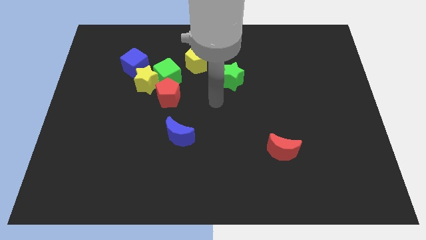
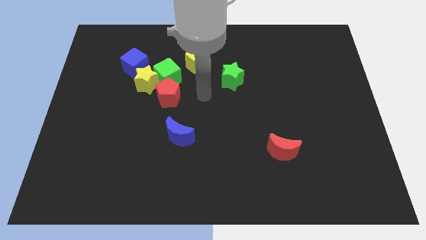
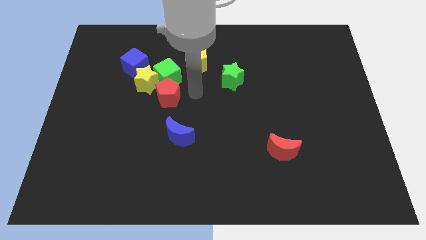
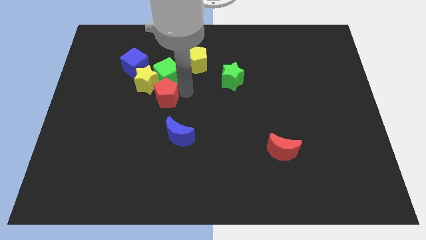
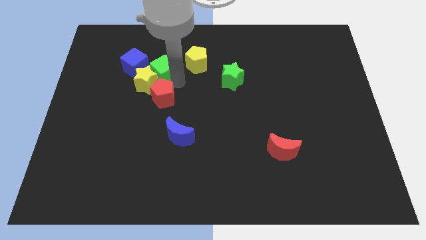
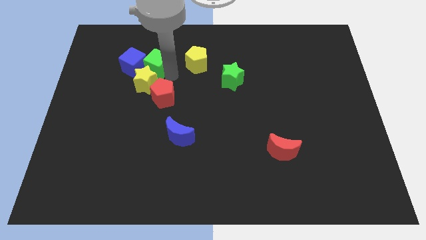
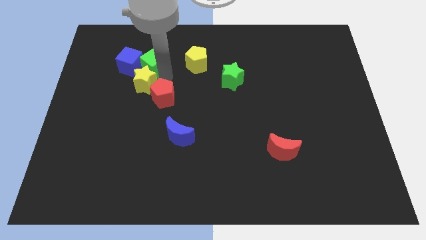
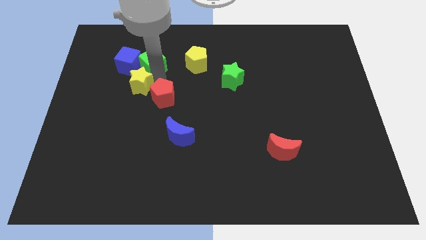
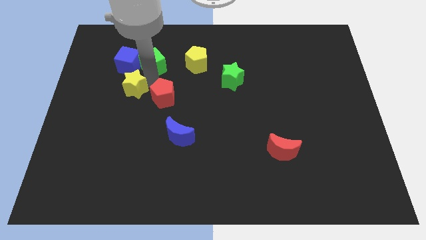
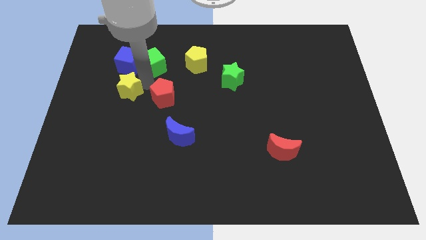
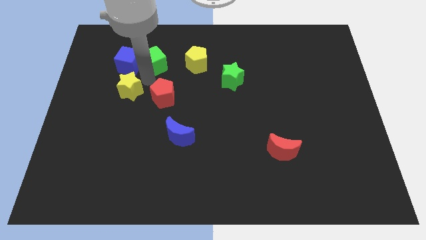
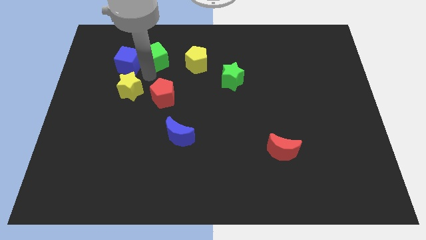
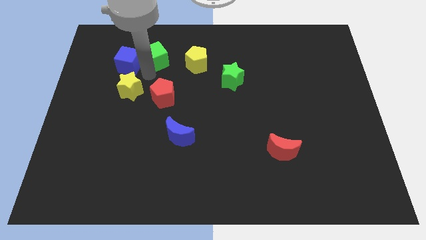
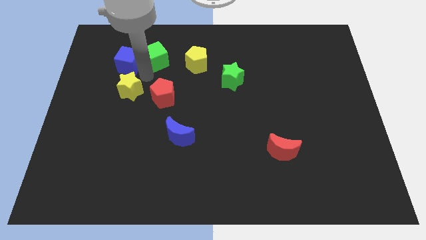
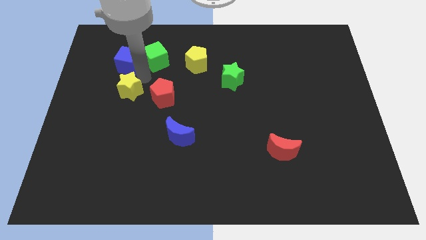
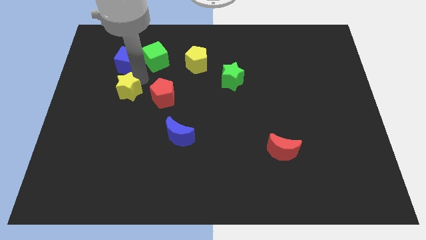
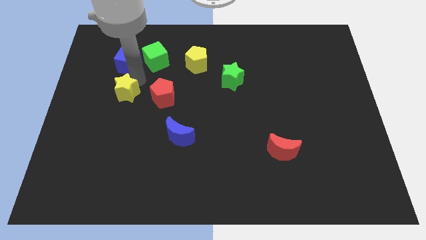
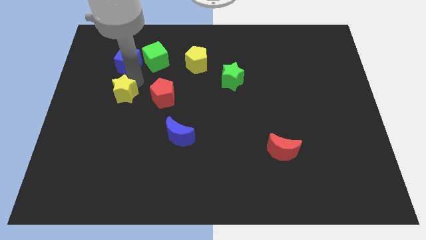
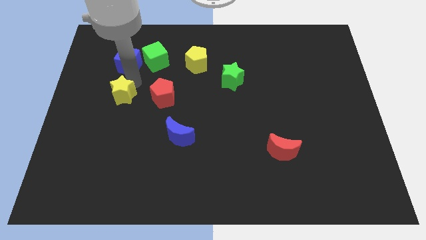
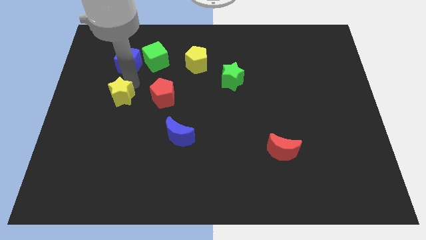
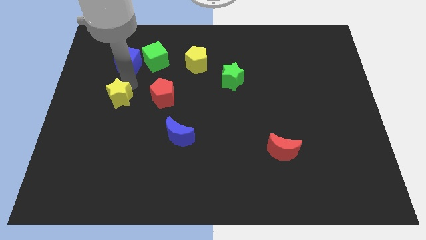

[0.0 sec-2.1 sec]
move the yellow star away from the green cube, red pentagon, and blue cube

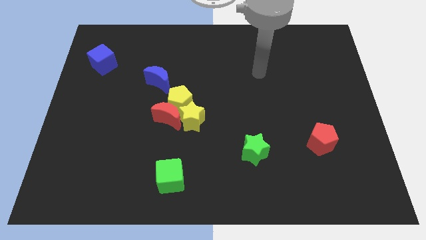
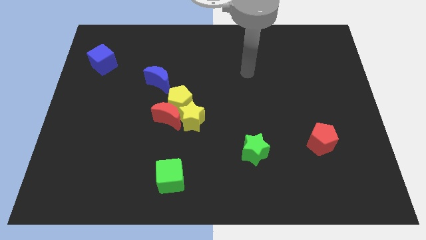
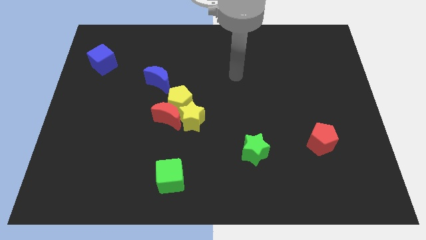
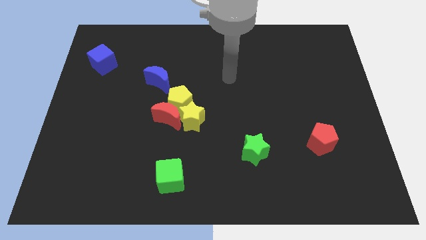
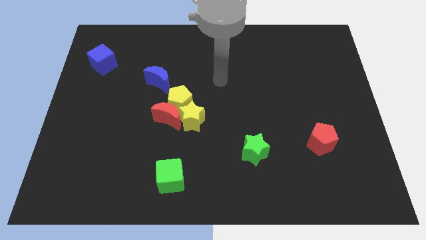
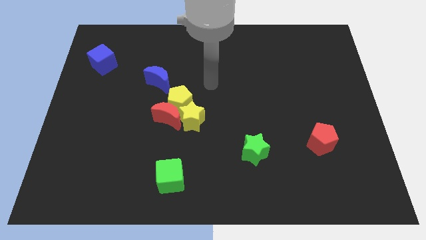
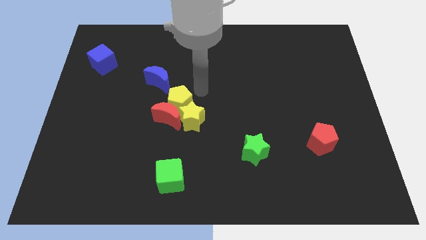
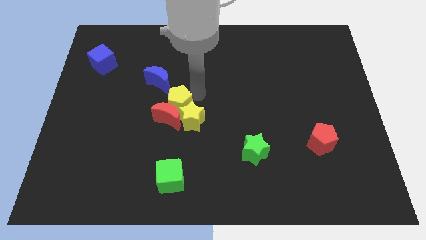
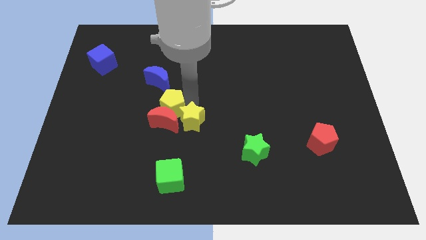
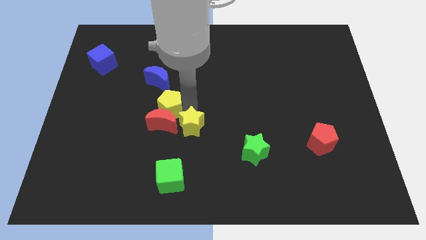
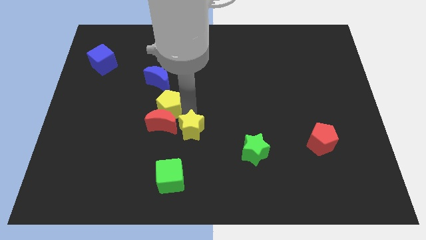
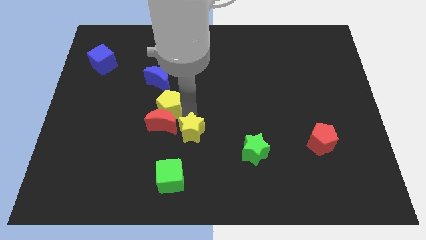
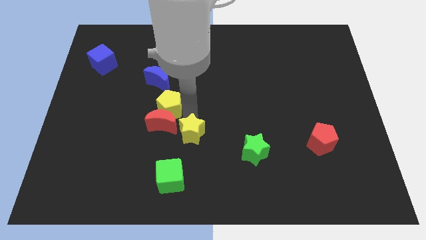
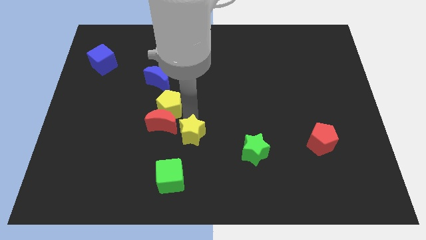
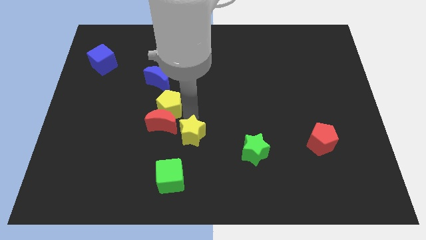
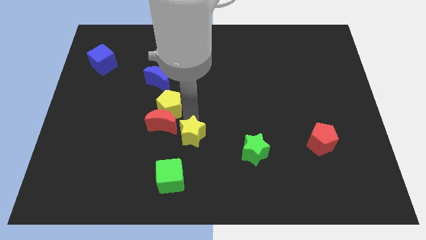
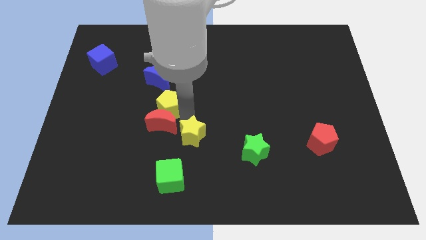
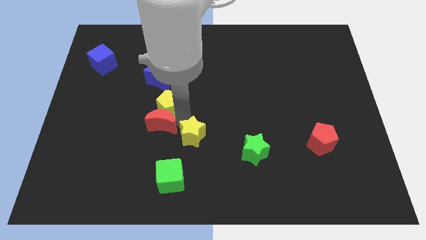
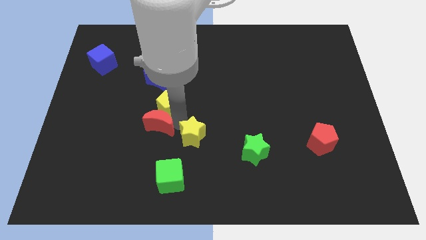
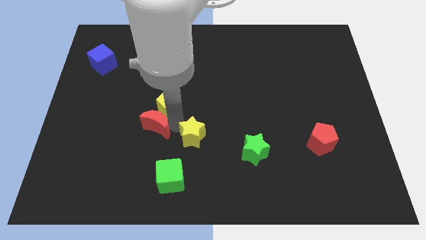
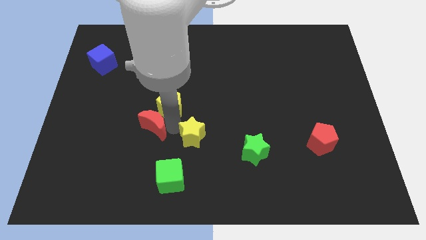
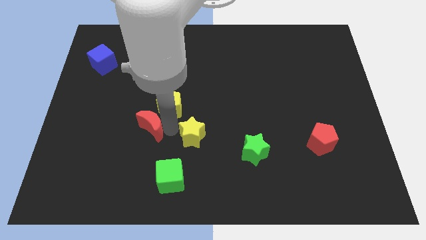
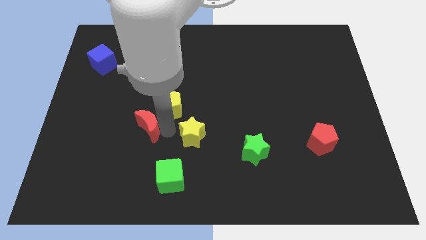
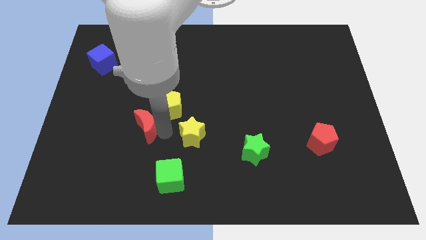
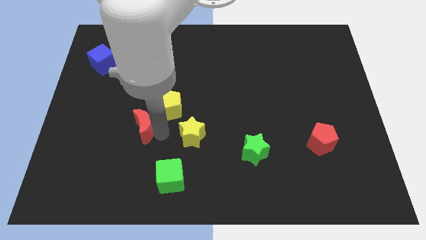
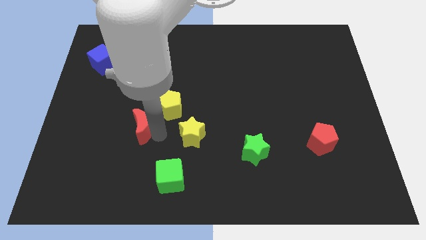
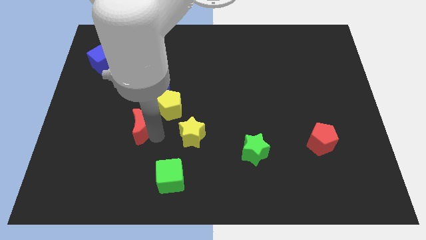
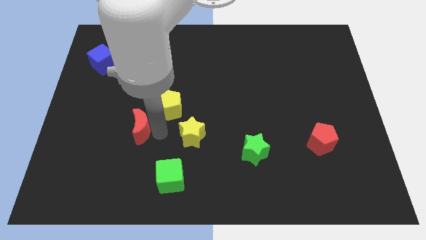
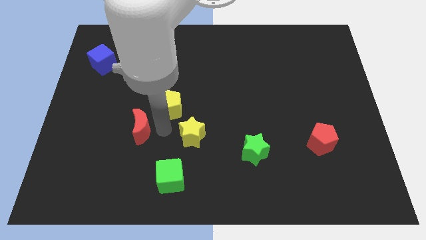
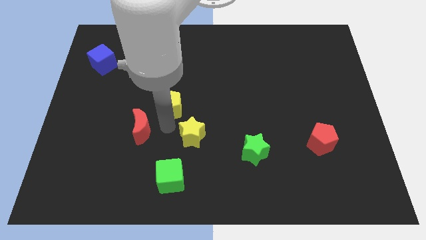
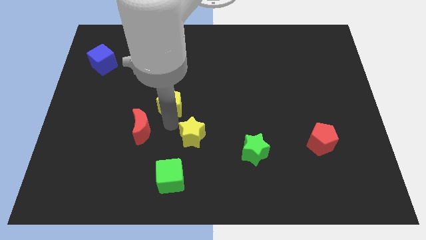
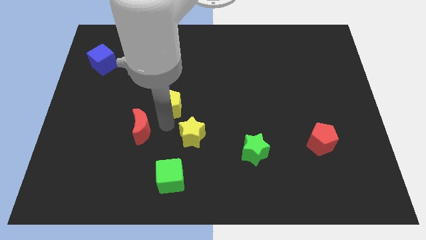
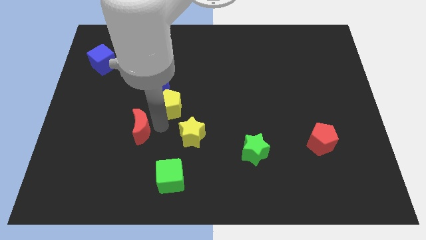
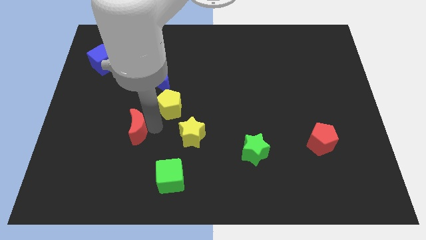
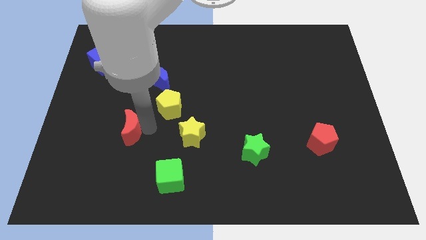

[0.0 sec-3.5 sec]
separate the red moon from the yellow pentagon and yellow star

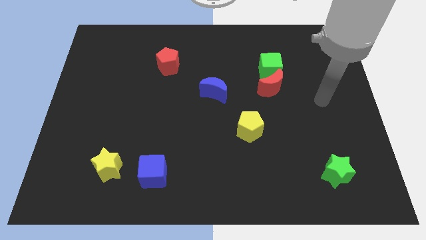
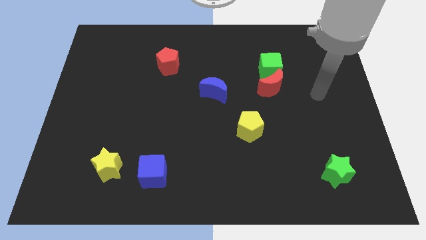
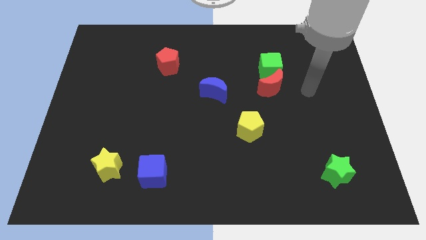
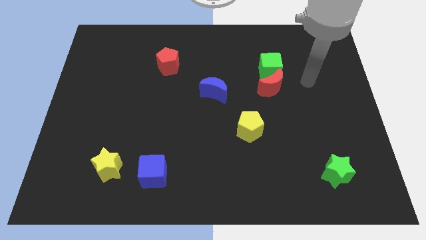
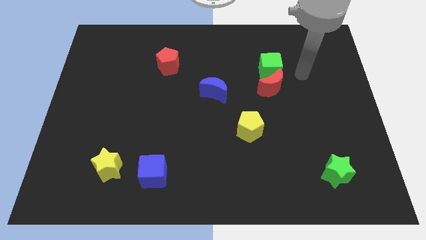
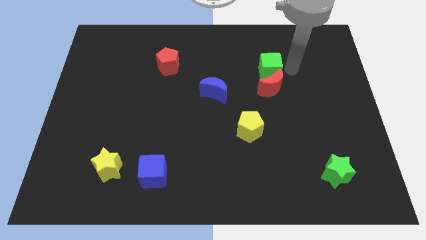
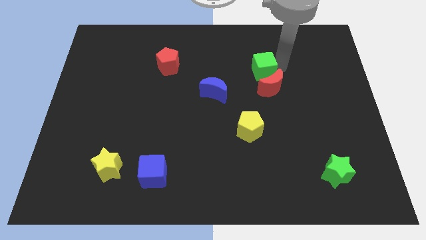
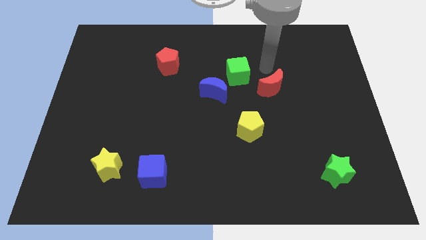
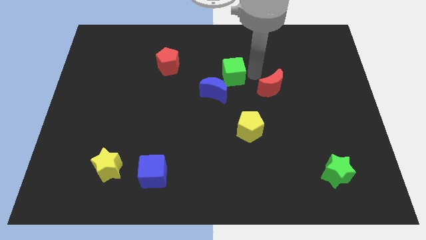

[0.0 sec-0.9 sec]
pull the red moon apart from the green cube

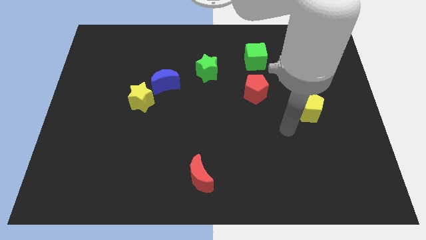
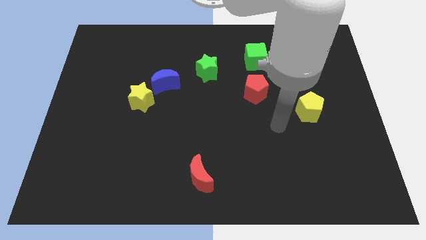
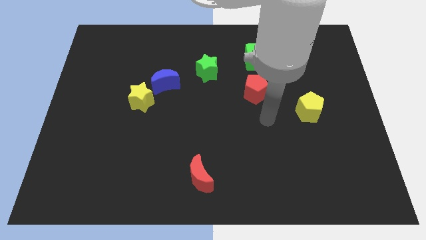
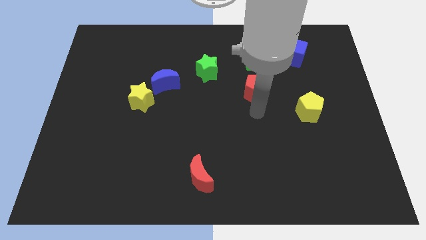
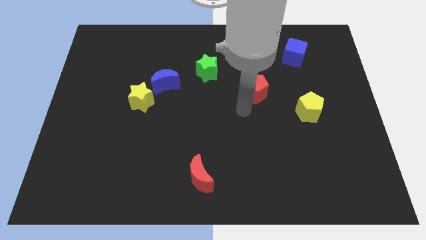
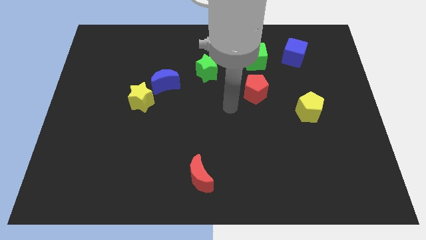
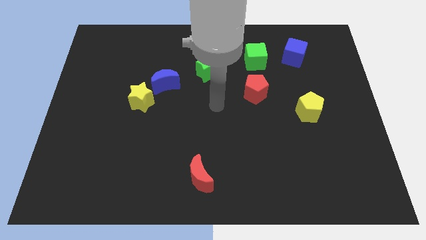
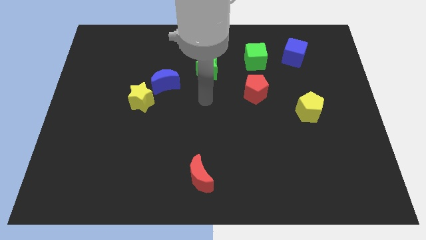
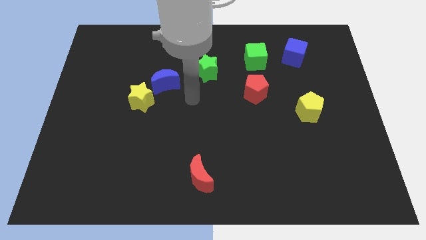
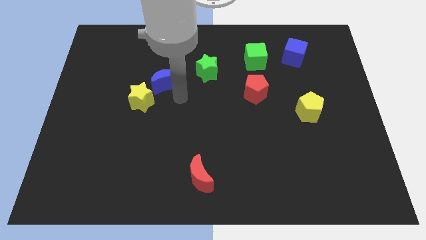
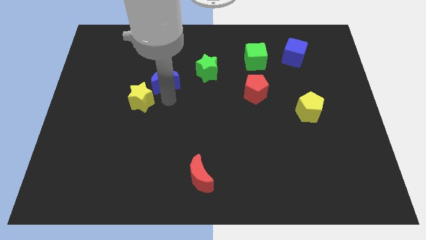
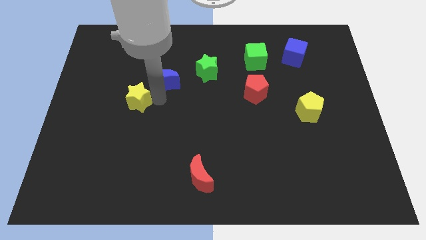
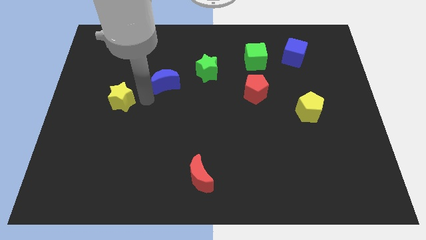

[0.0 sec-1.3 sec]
pull the blue moon apart from the yellow star

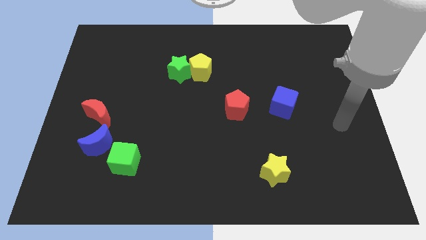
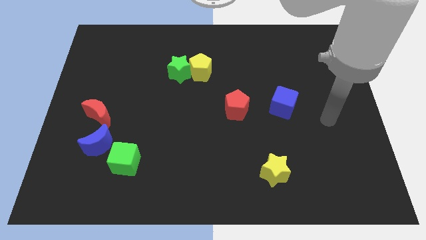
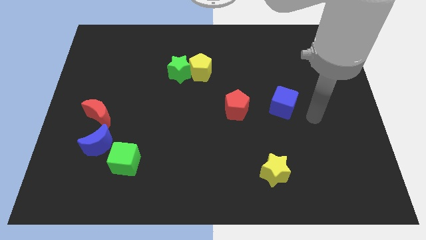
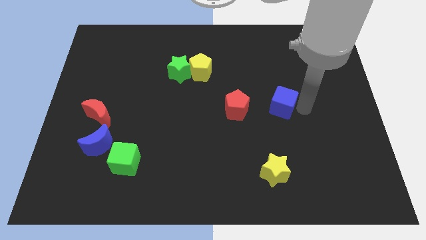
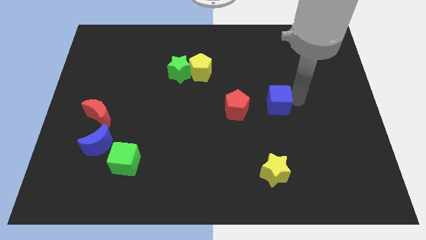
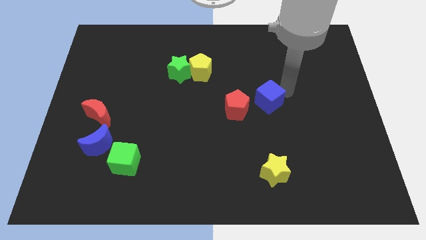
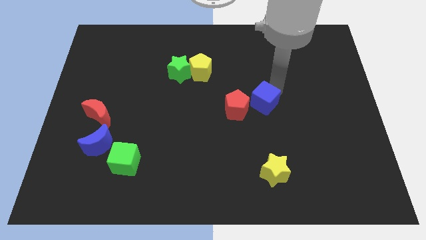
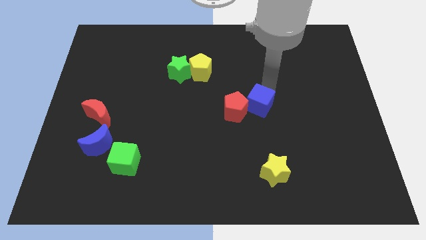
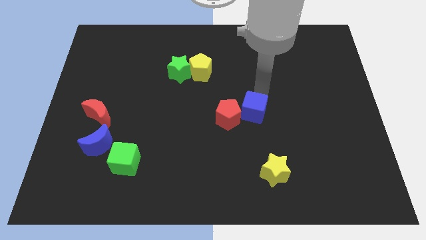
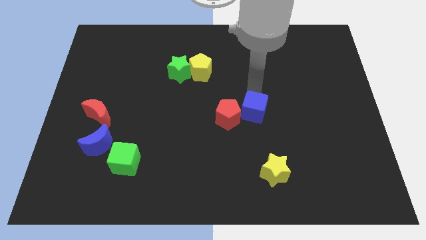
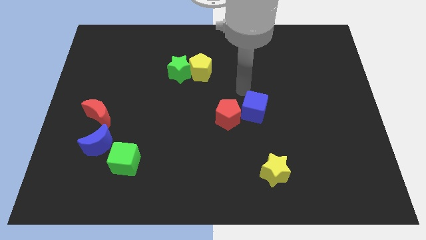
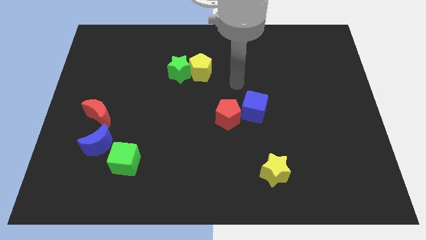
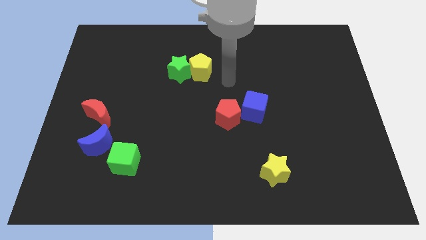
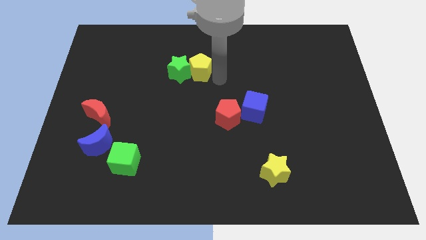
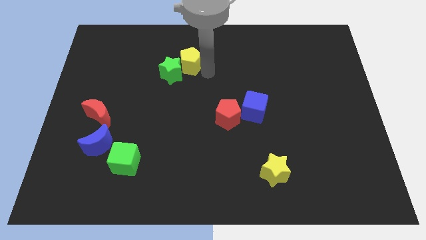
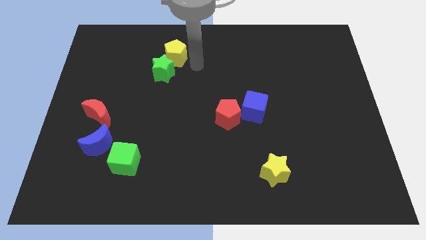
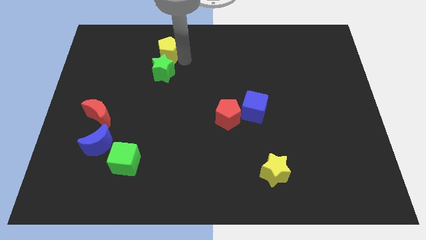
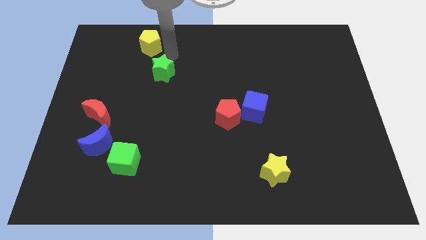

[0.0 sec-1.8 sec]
pull the green star apart from the yellow pentagon
